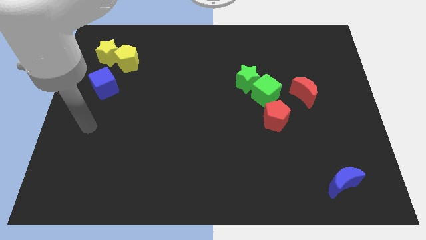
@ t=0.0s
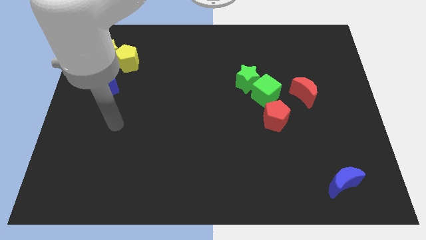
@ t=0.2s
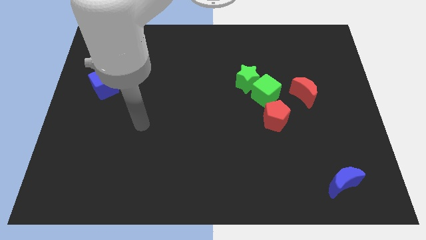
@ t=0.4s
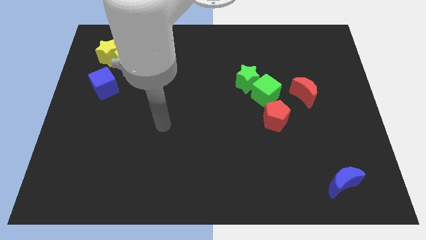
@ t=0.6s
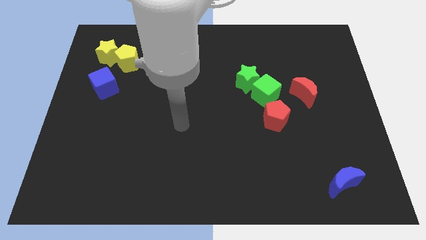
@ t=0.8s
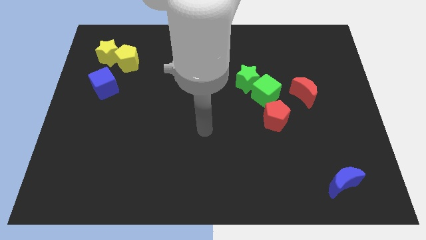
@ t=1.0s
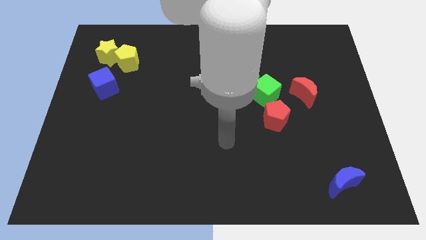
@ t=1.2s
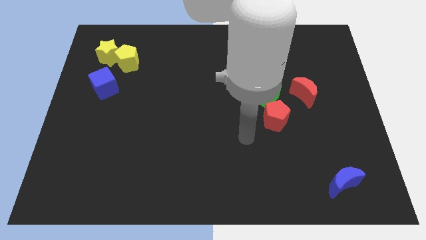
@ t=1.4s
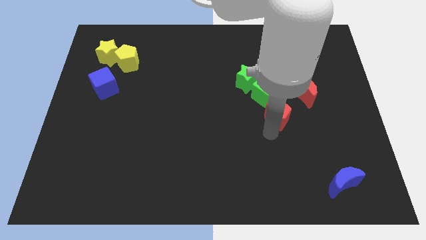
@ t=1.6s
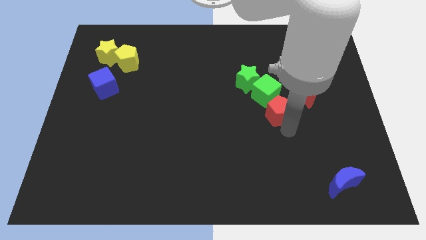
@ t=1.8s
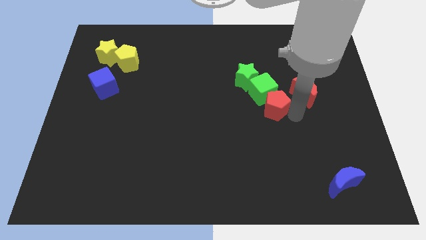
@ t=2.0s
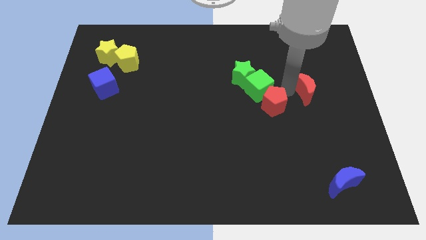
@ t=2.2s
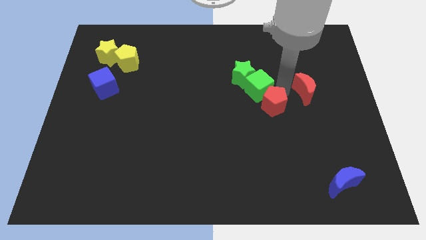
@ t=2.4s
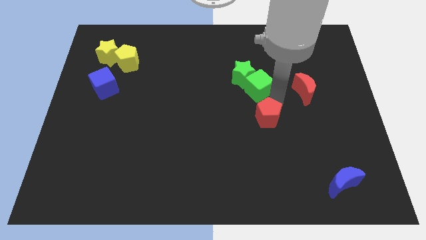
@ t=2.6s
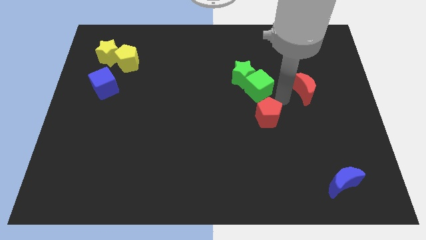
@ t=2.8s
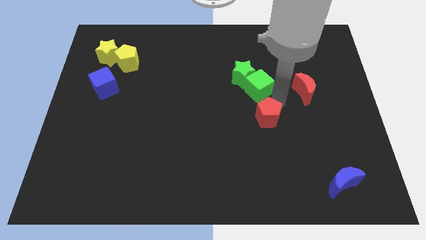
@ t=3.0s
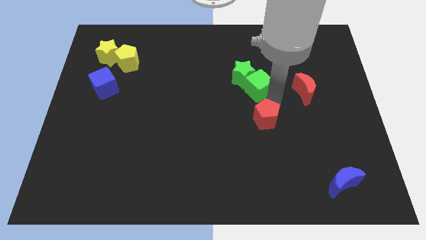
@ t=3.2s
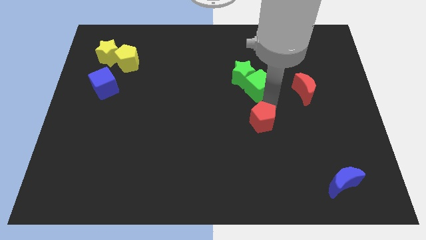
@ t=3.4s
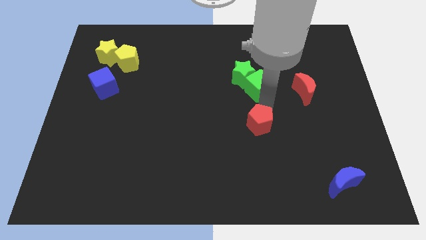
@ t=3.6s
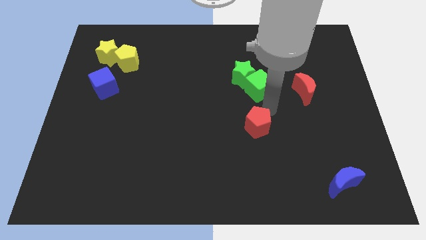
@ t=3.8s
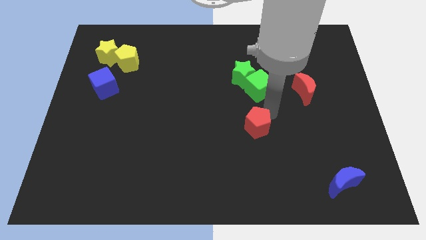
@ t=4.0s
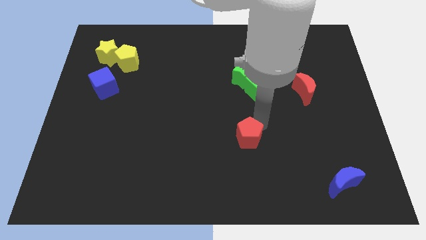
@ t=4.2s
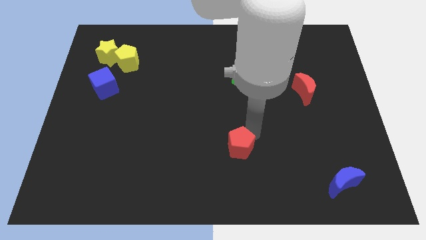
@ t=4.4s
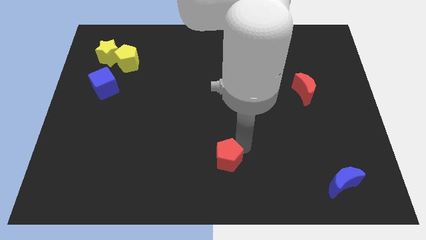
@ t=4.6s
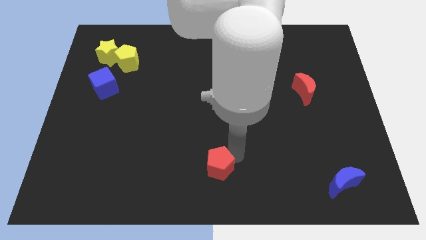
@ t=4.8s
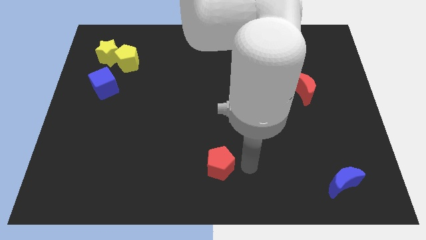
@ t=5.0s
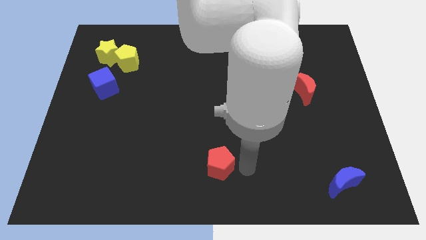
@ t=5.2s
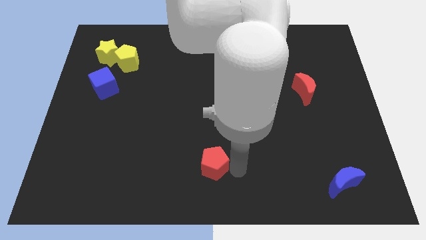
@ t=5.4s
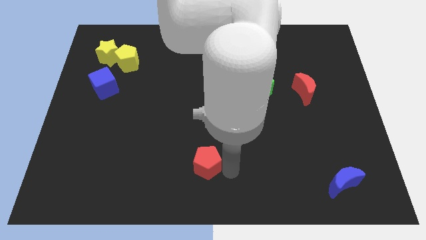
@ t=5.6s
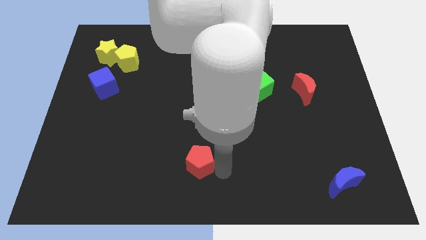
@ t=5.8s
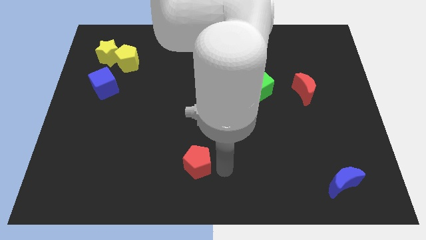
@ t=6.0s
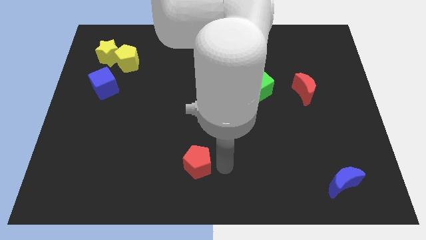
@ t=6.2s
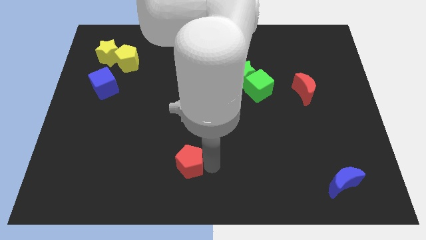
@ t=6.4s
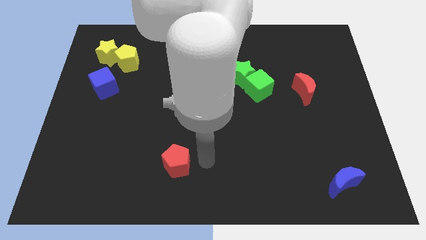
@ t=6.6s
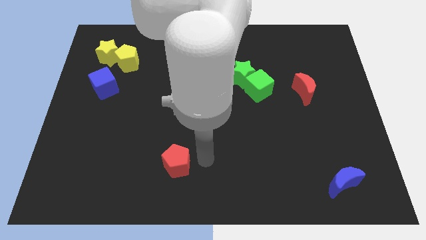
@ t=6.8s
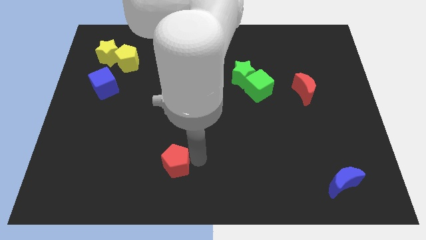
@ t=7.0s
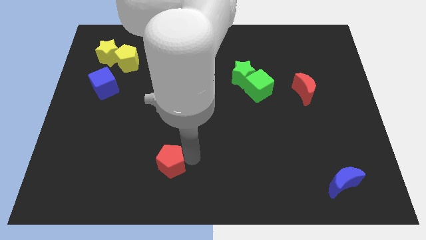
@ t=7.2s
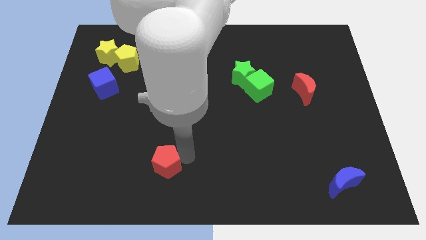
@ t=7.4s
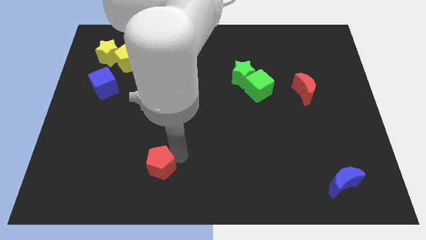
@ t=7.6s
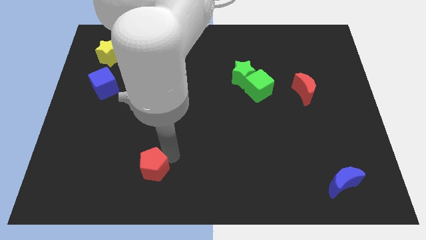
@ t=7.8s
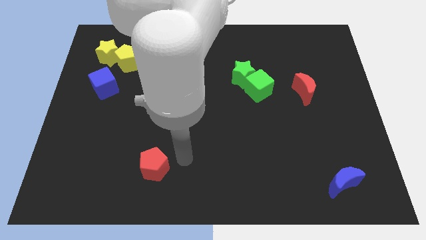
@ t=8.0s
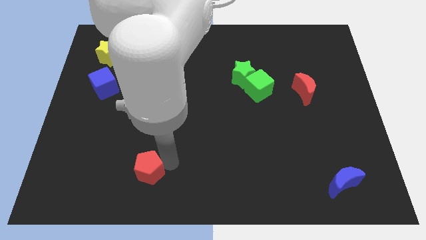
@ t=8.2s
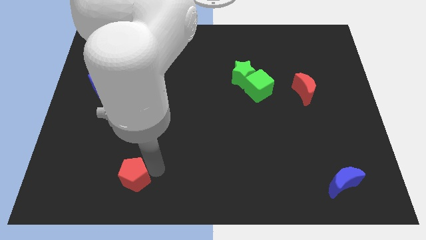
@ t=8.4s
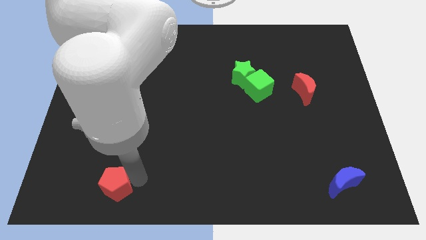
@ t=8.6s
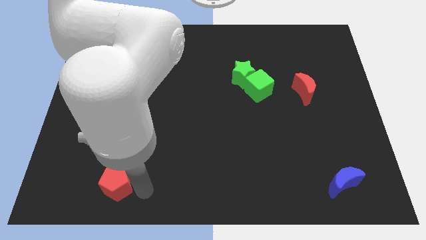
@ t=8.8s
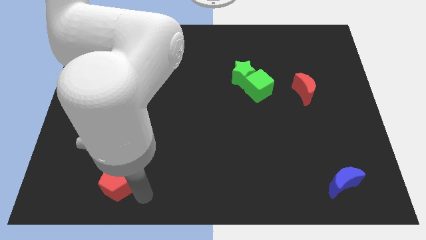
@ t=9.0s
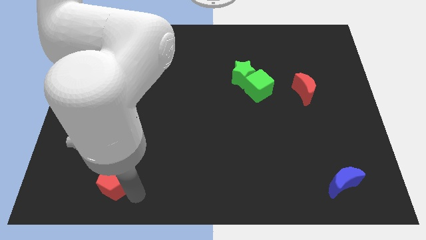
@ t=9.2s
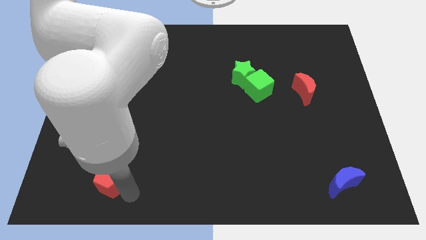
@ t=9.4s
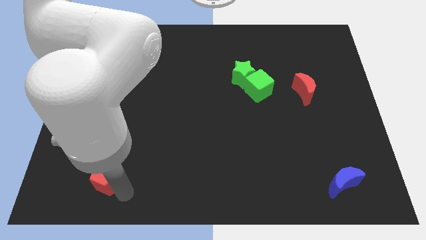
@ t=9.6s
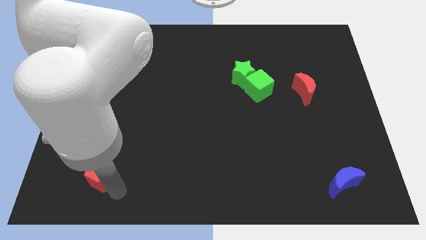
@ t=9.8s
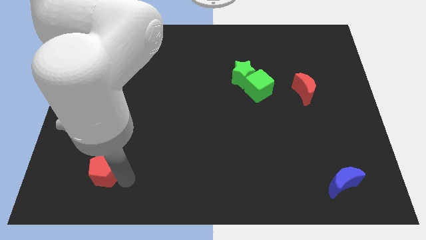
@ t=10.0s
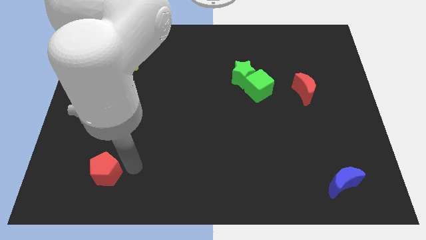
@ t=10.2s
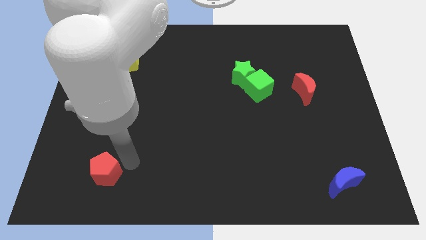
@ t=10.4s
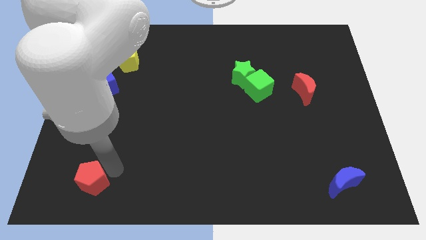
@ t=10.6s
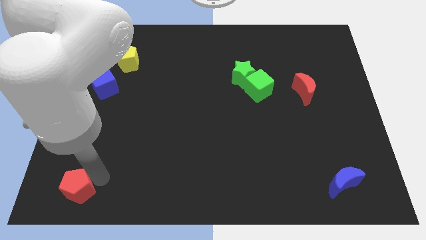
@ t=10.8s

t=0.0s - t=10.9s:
put the red pentagon to the lower left corner

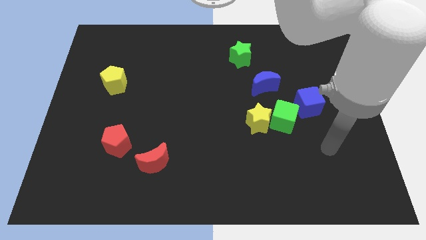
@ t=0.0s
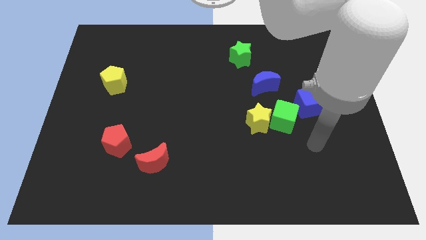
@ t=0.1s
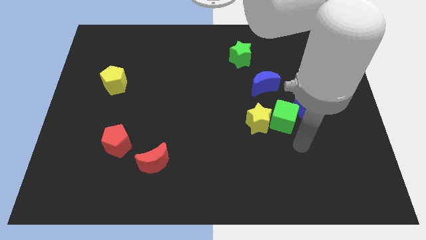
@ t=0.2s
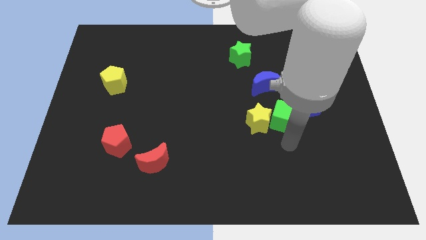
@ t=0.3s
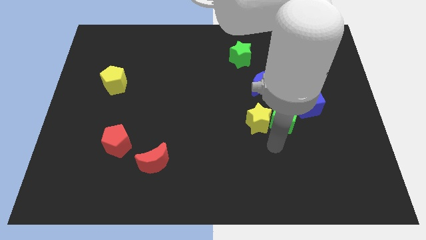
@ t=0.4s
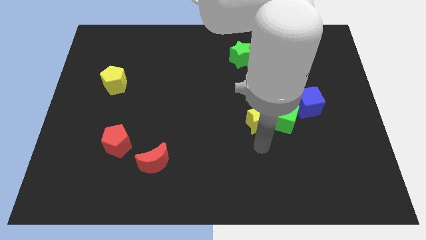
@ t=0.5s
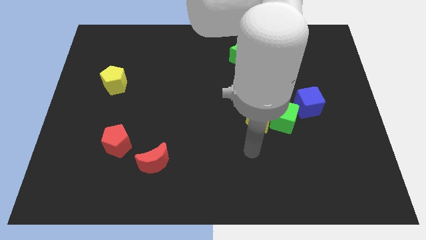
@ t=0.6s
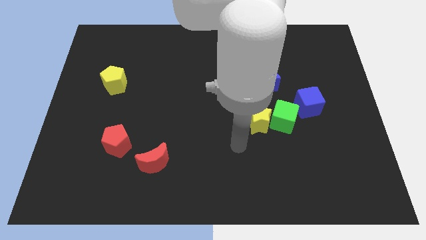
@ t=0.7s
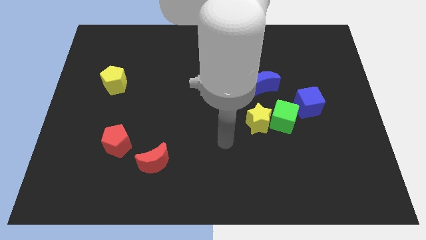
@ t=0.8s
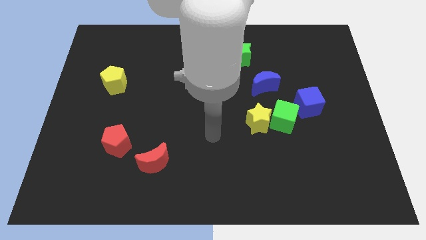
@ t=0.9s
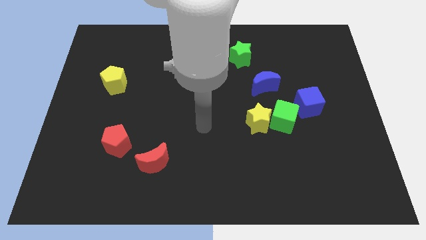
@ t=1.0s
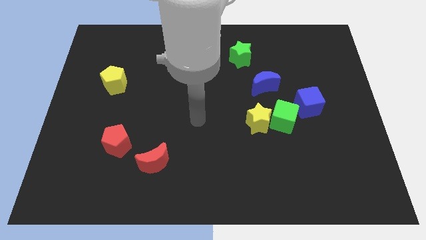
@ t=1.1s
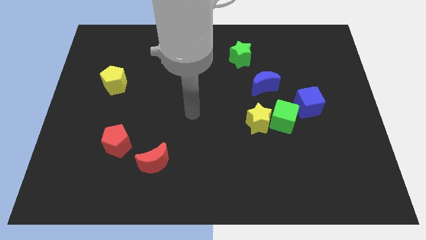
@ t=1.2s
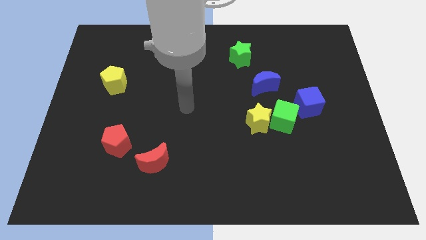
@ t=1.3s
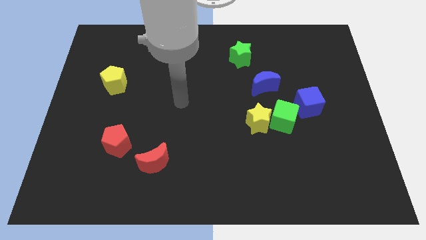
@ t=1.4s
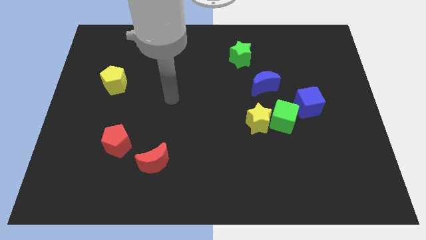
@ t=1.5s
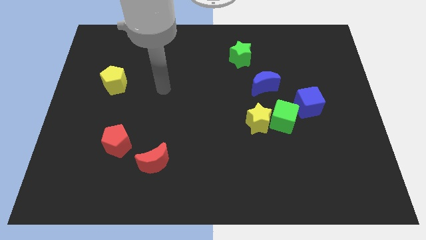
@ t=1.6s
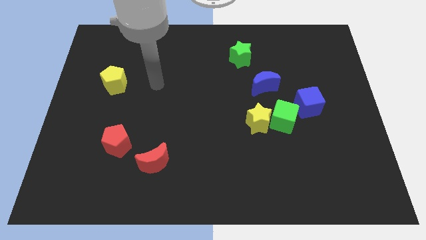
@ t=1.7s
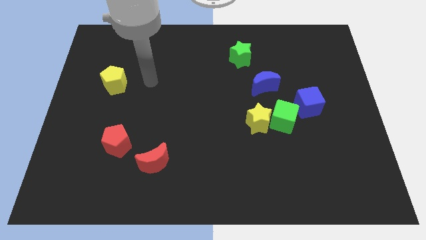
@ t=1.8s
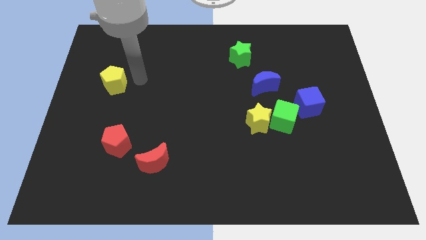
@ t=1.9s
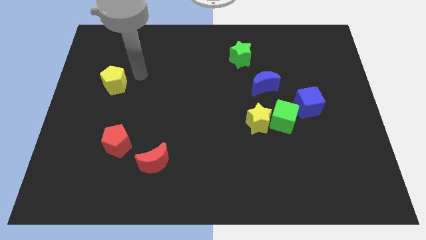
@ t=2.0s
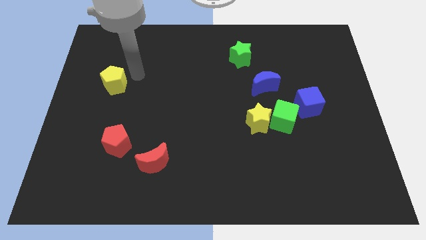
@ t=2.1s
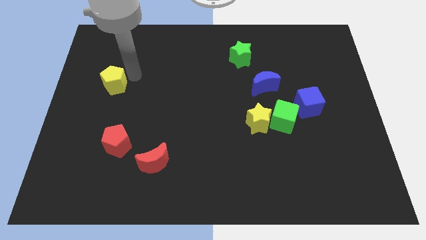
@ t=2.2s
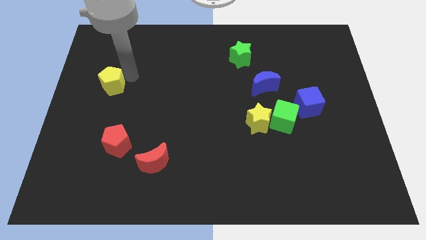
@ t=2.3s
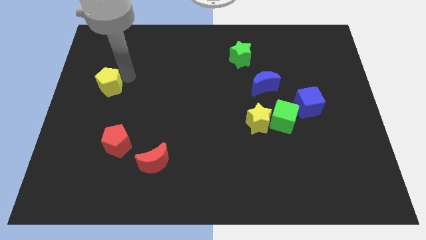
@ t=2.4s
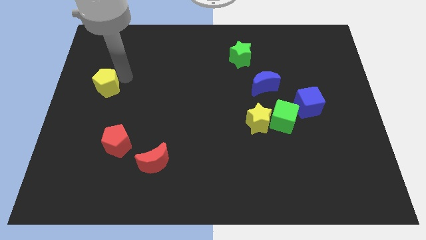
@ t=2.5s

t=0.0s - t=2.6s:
put the yellow pentagon to the center left
